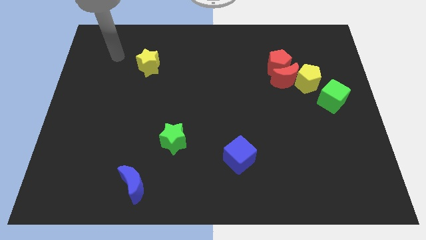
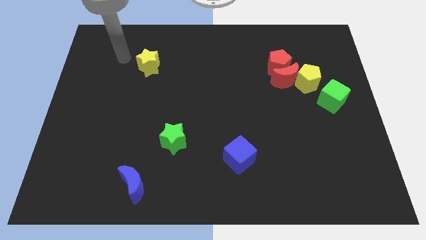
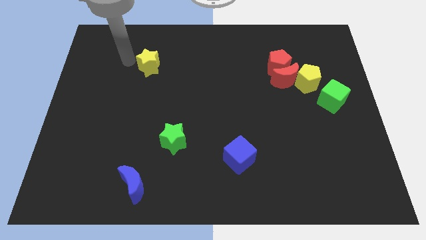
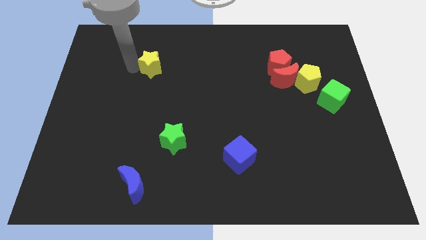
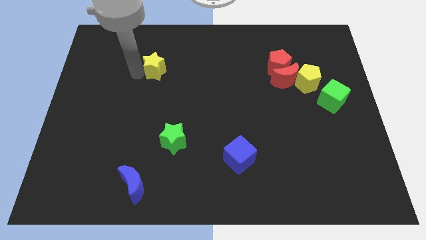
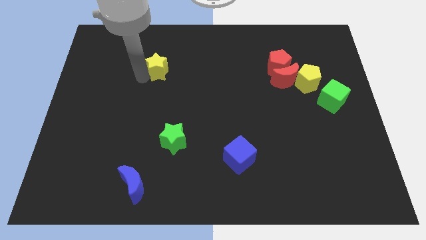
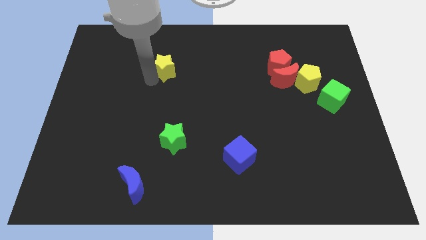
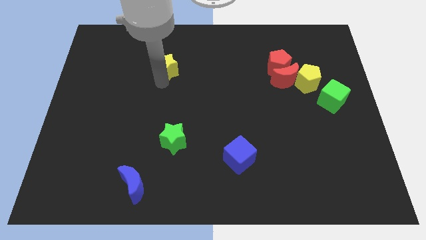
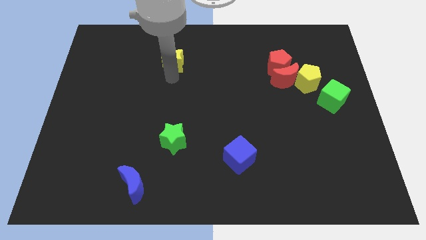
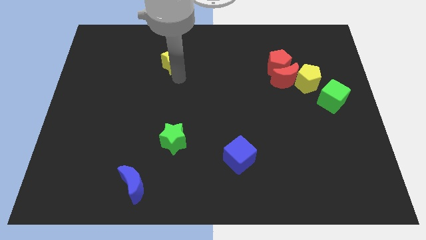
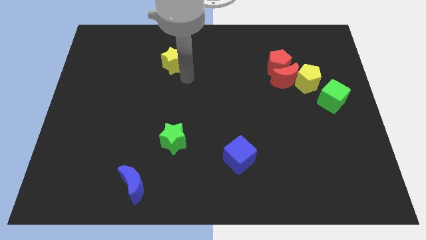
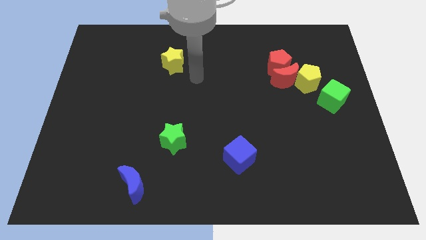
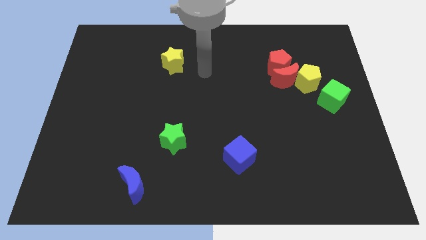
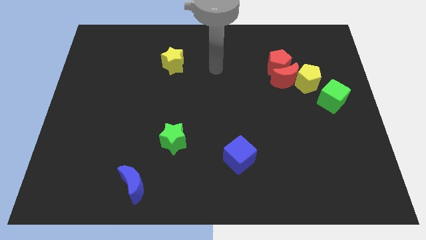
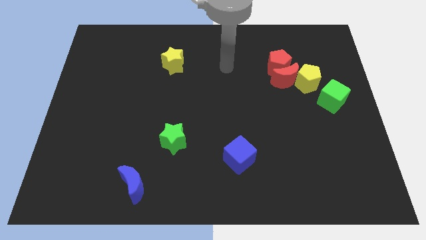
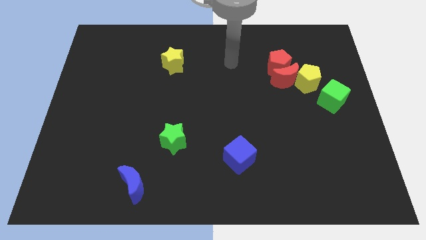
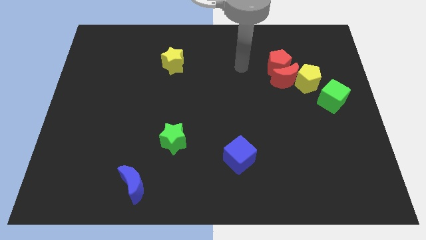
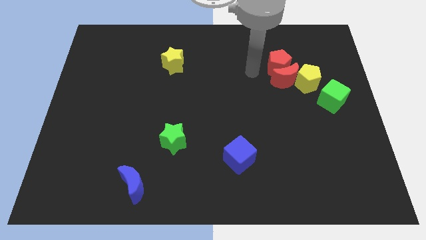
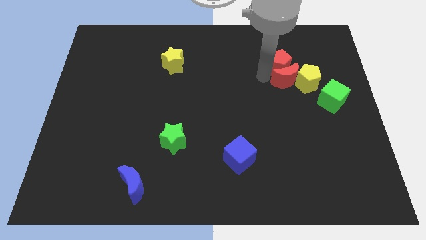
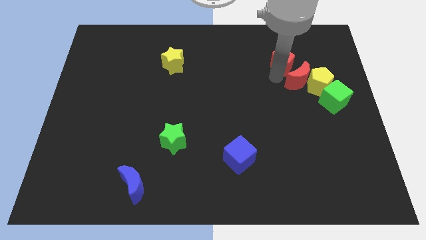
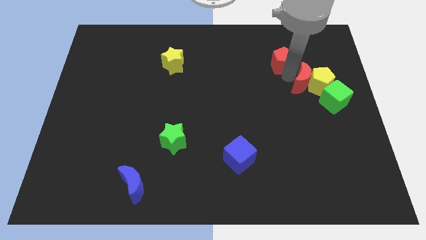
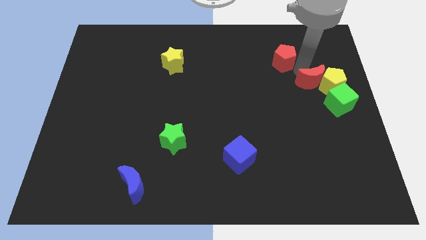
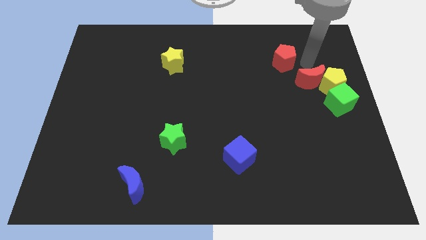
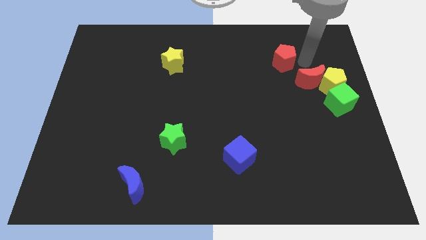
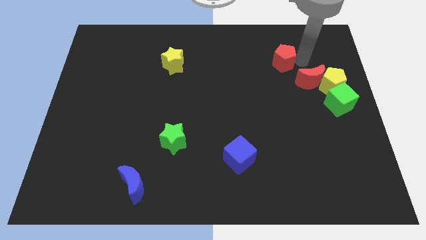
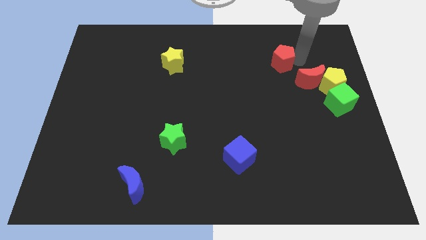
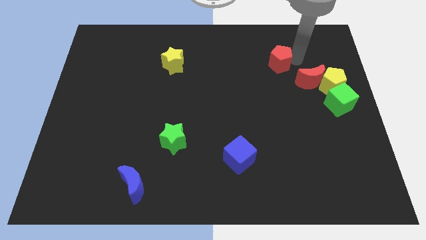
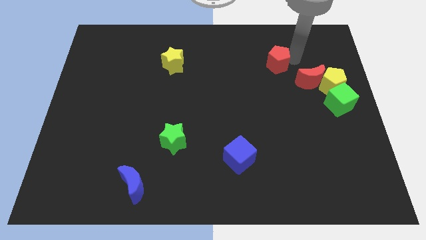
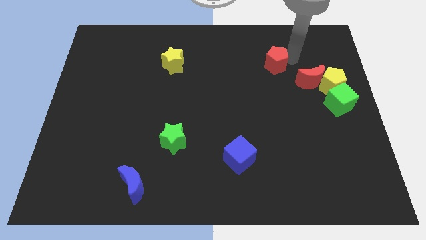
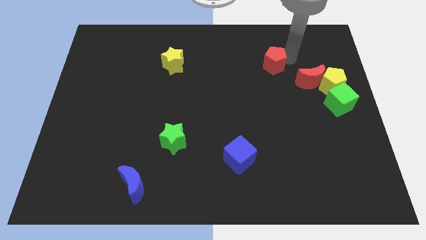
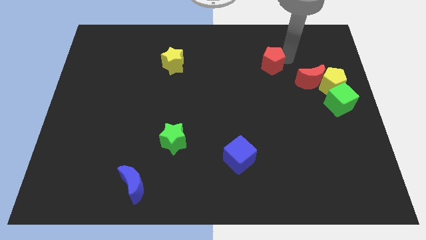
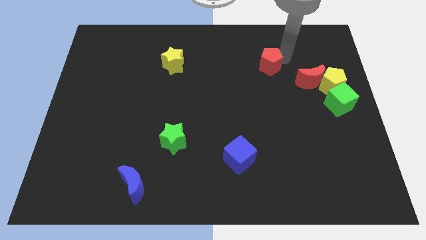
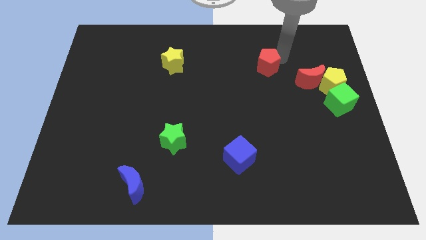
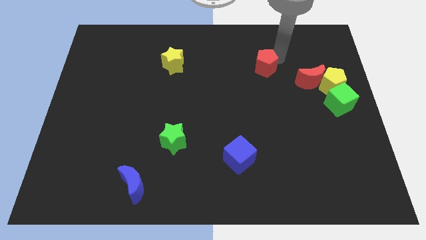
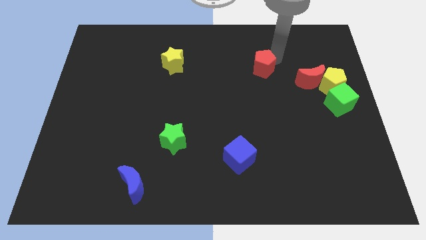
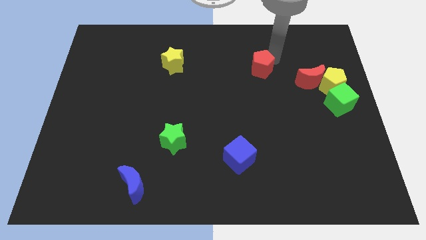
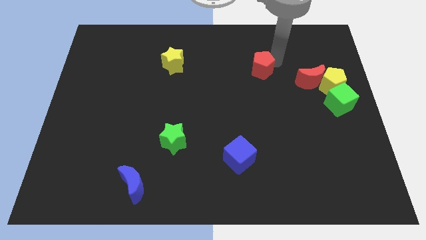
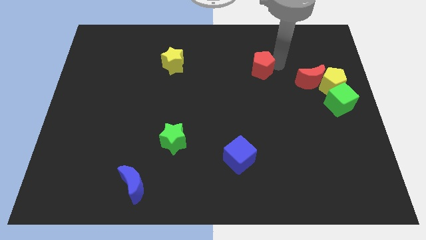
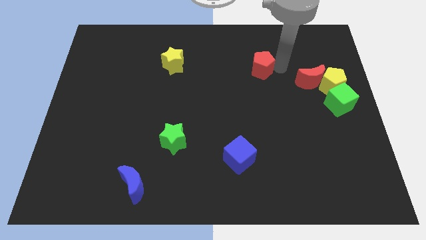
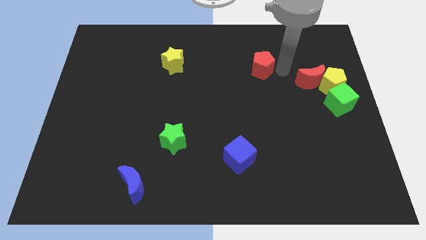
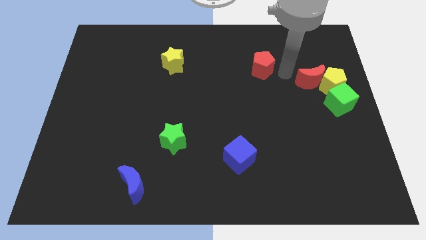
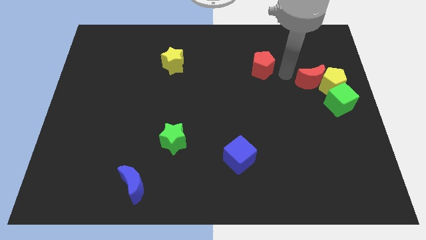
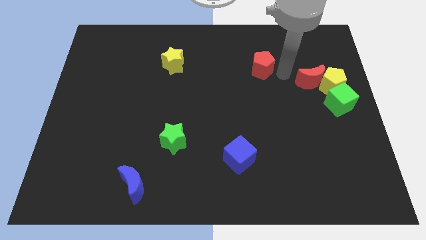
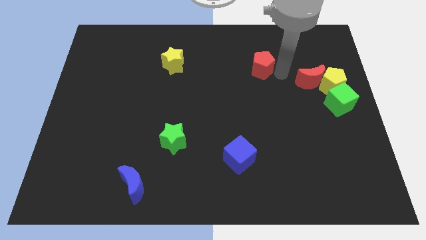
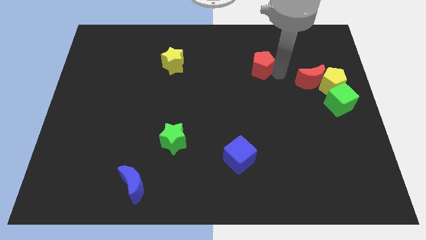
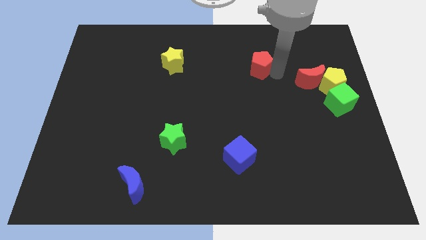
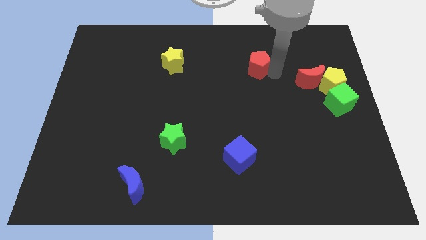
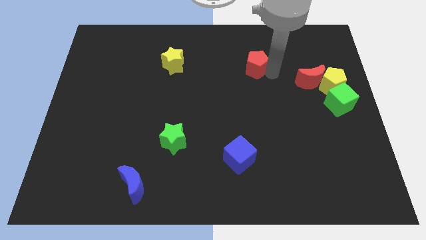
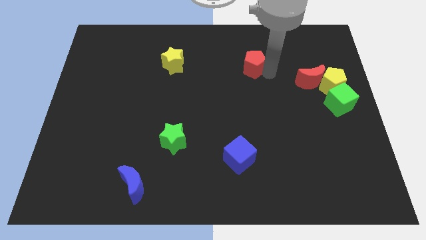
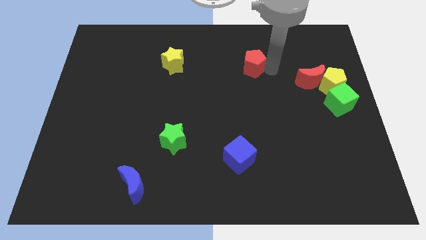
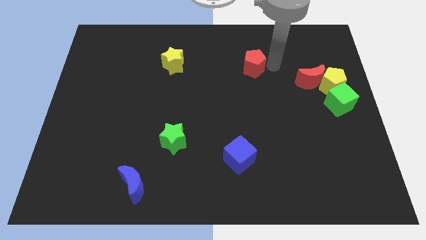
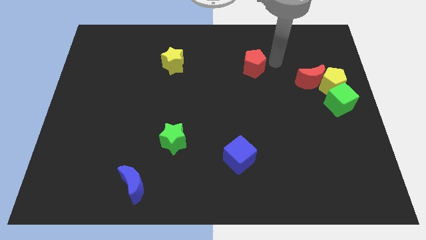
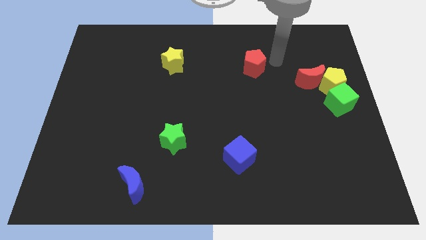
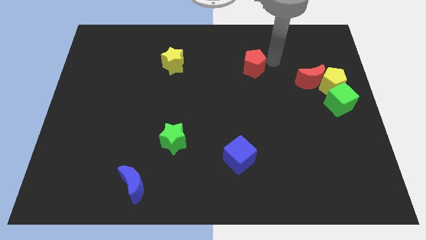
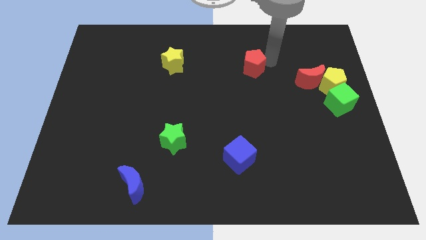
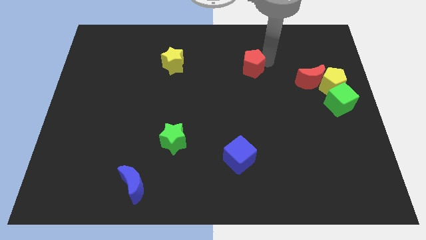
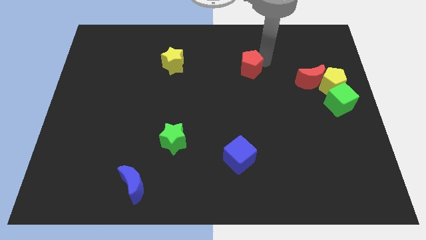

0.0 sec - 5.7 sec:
push the red pentagon to the left slightly

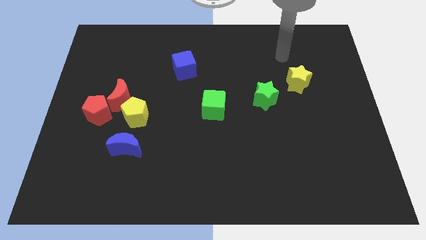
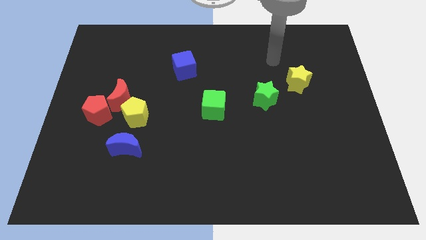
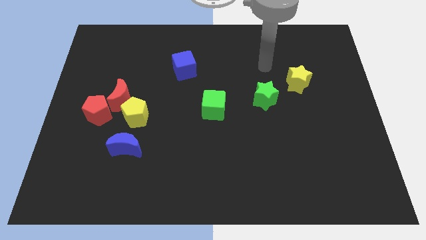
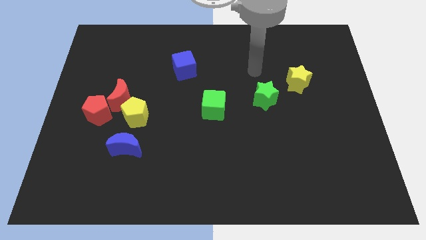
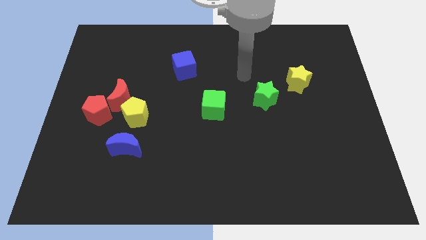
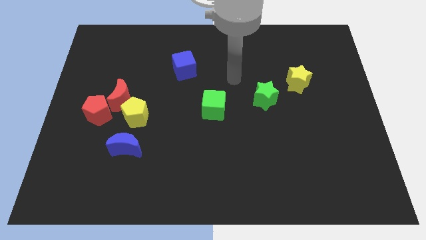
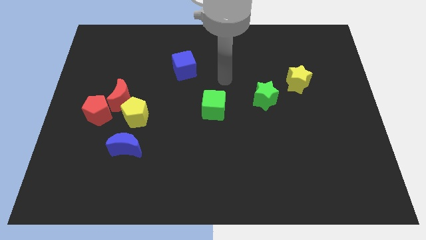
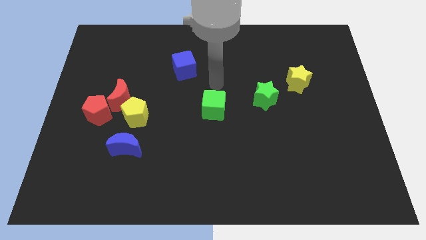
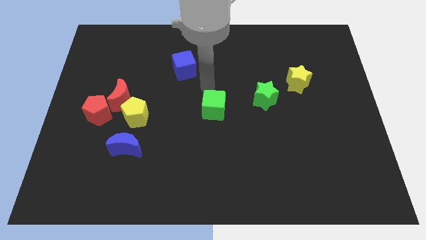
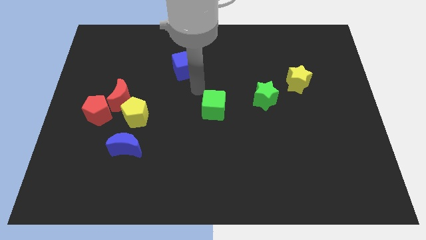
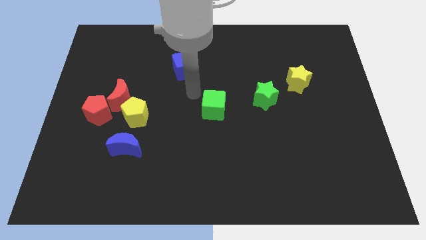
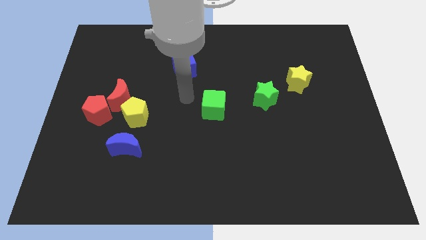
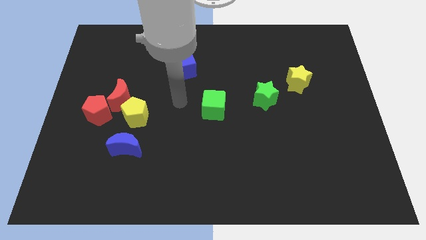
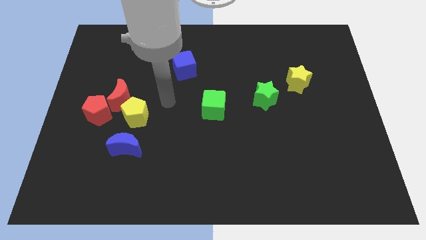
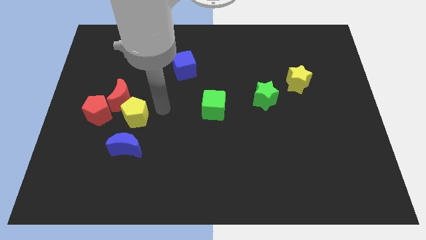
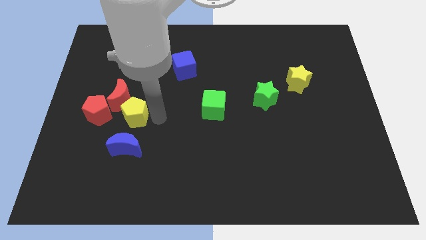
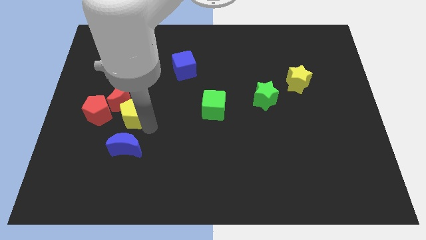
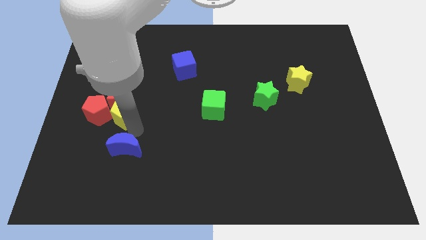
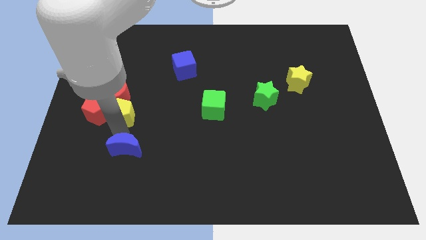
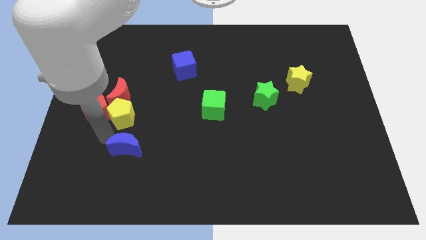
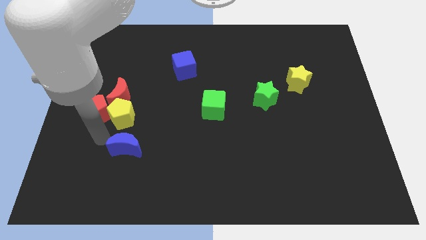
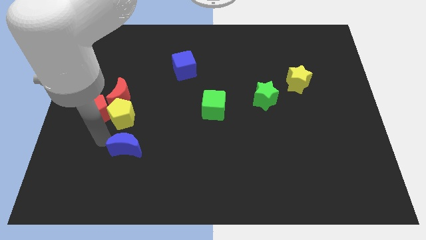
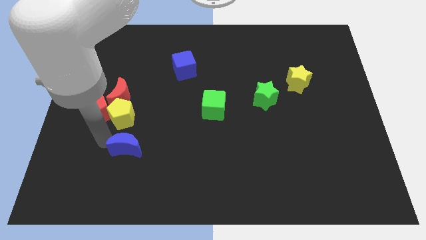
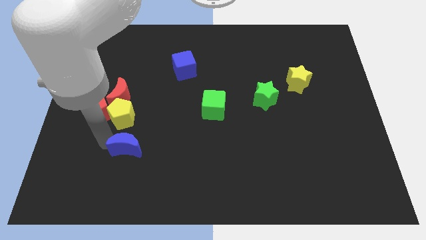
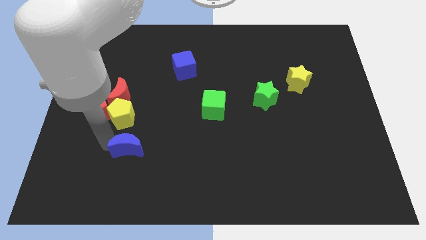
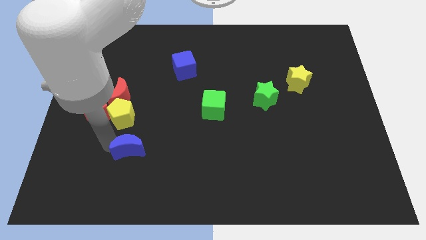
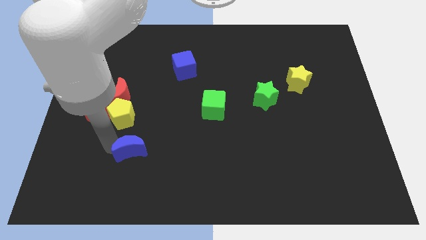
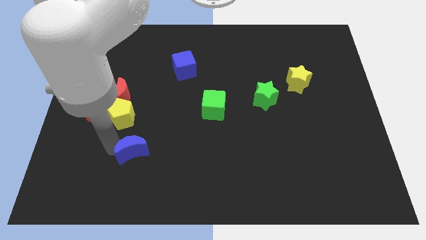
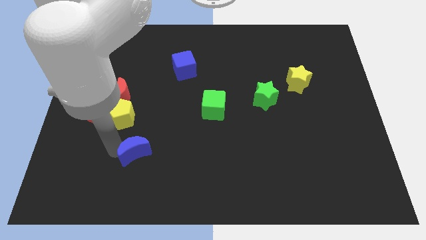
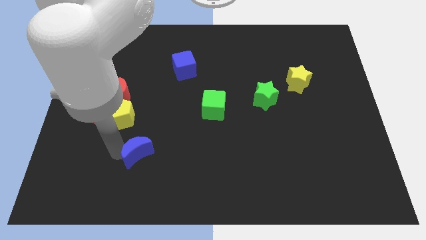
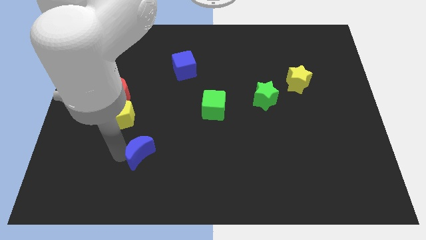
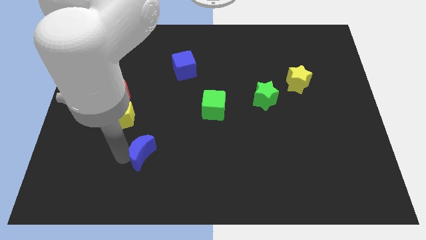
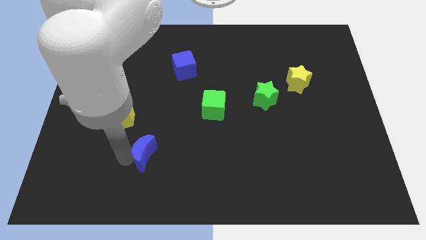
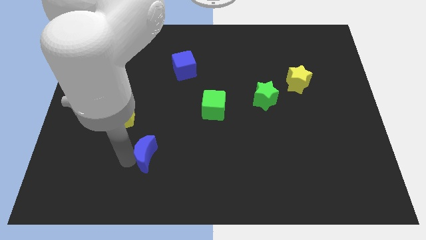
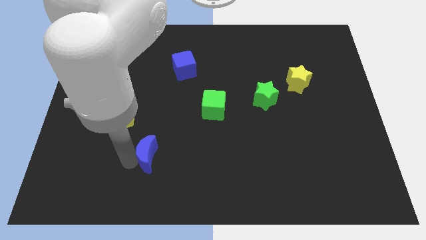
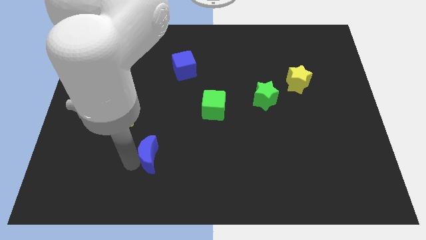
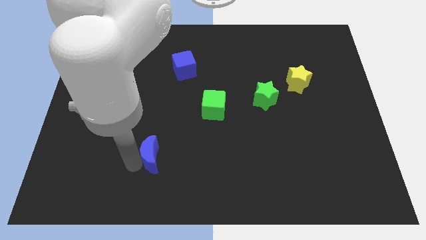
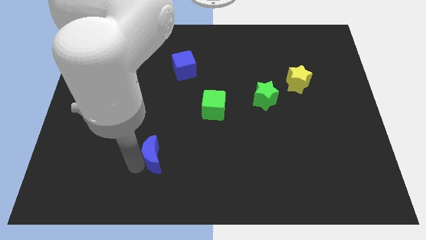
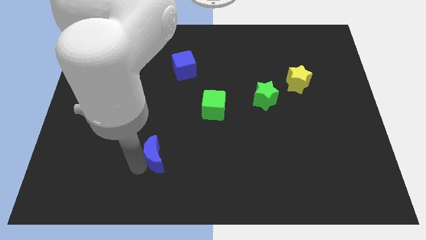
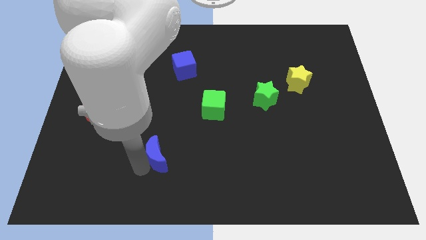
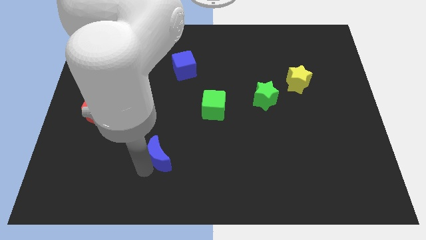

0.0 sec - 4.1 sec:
move the blue moon right a little
